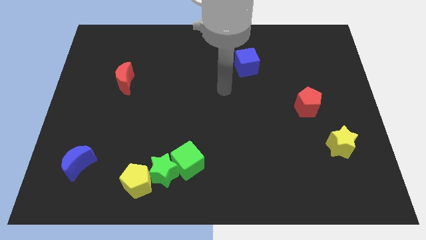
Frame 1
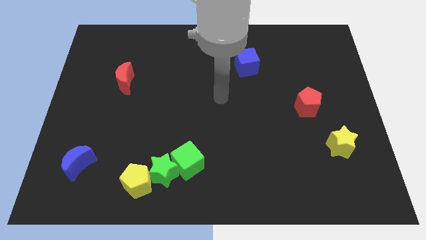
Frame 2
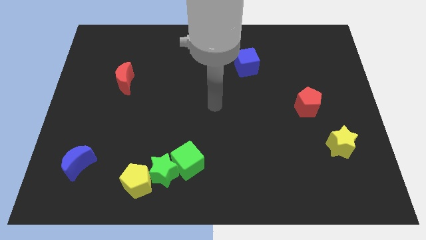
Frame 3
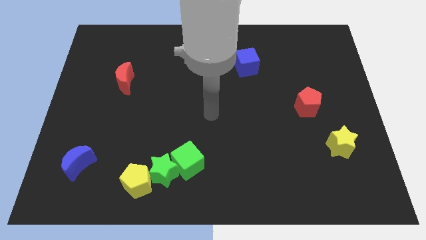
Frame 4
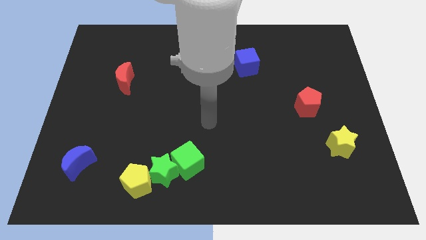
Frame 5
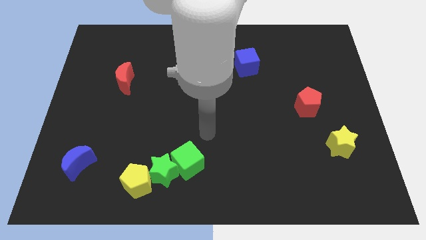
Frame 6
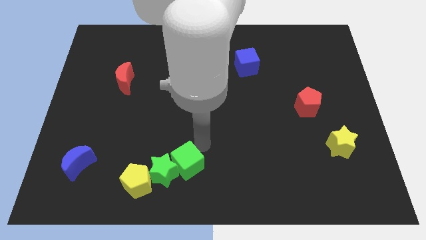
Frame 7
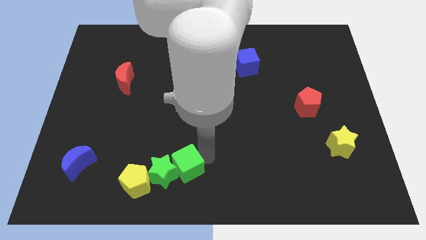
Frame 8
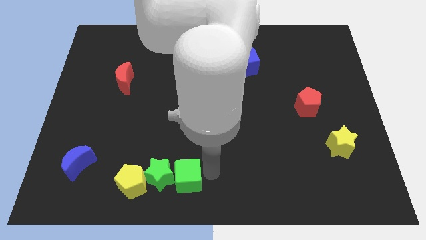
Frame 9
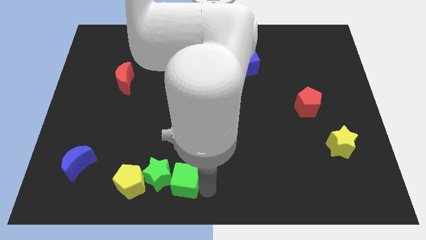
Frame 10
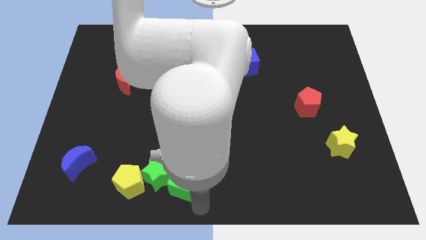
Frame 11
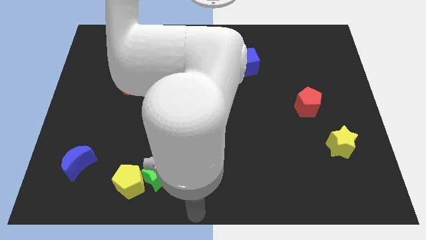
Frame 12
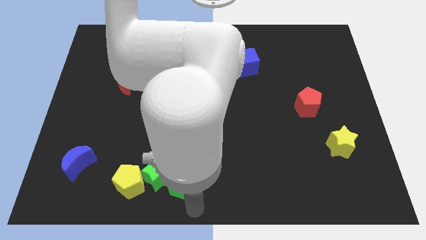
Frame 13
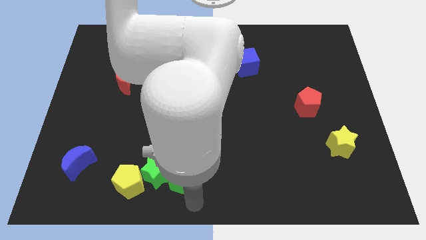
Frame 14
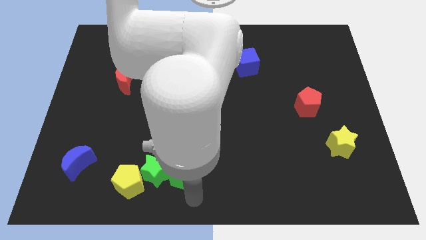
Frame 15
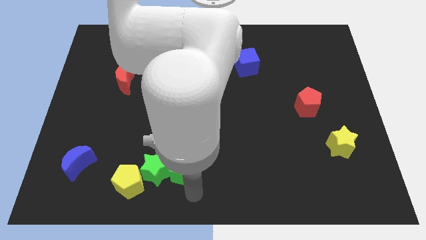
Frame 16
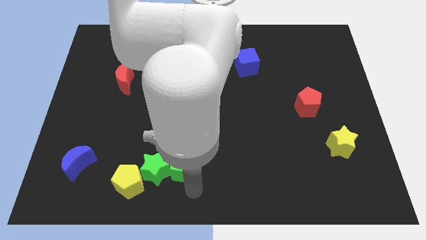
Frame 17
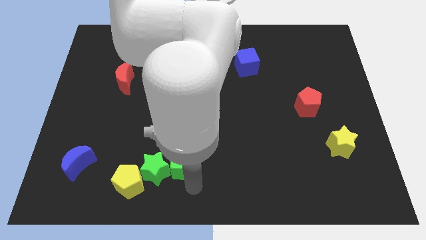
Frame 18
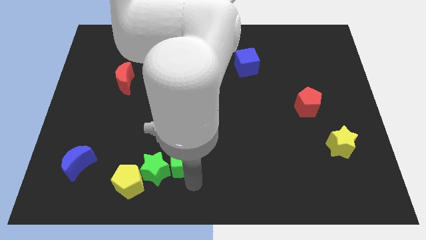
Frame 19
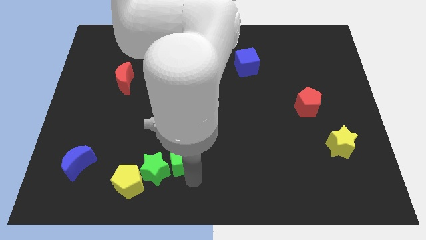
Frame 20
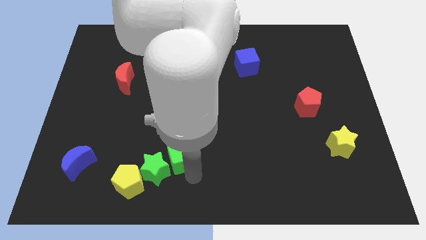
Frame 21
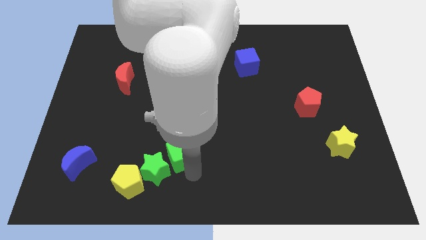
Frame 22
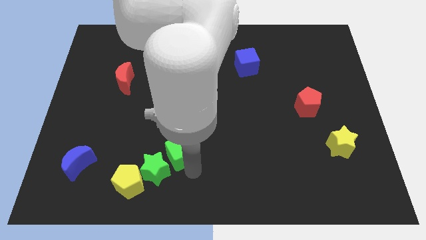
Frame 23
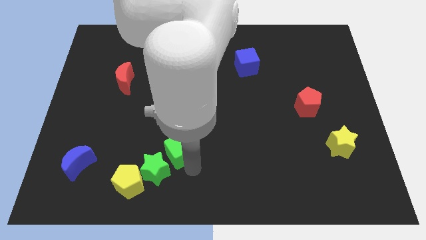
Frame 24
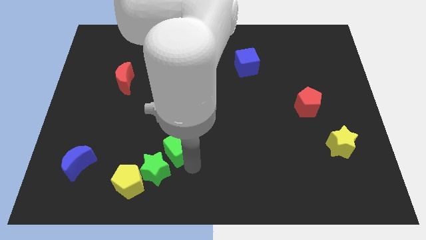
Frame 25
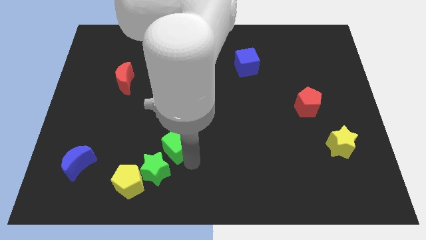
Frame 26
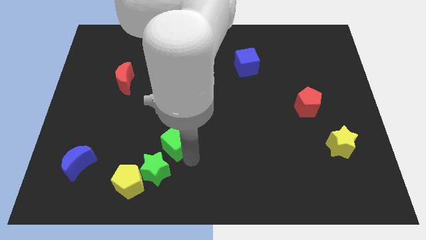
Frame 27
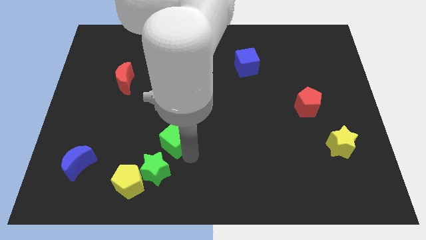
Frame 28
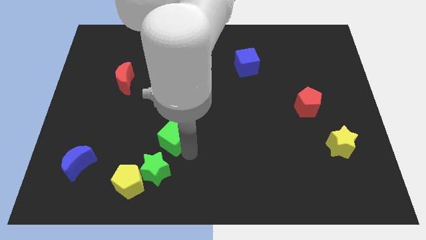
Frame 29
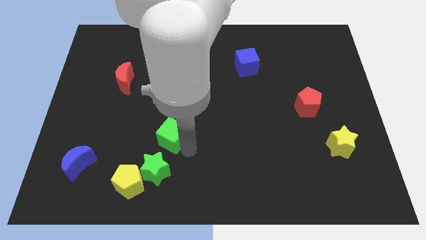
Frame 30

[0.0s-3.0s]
push the green cube somewhat upwards and to the left diagonally

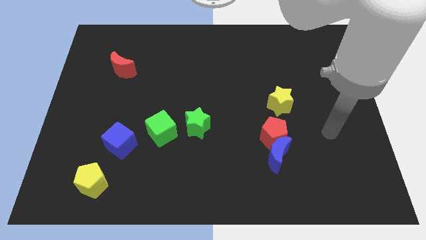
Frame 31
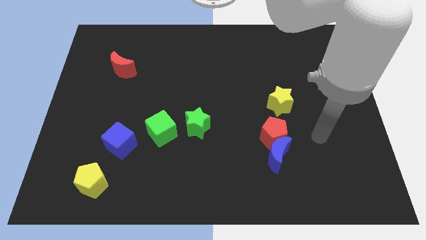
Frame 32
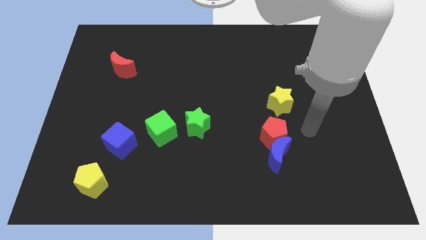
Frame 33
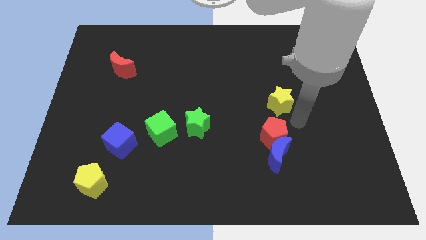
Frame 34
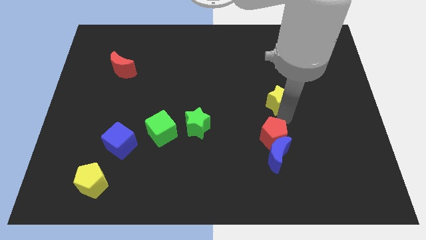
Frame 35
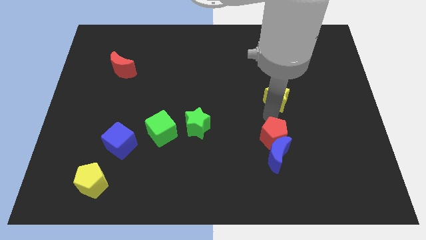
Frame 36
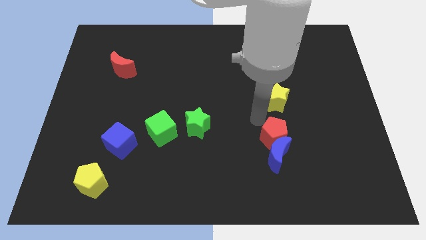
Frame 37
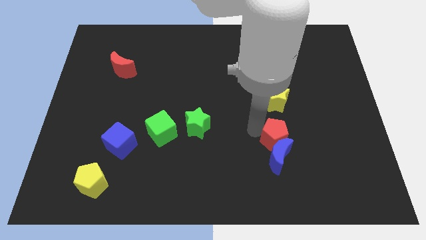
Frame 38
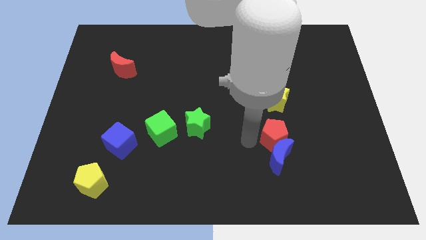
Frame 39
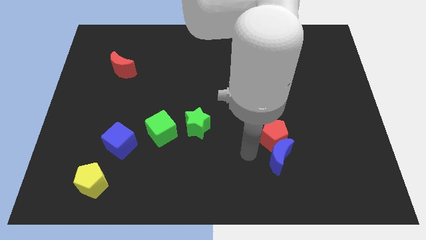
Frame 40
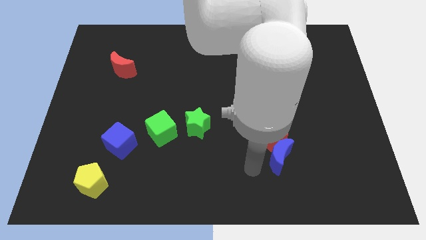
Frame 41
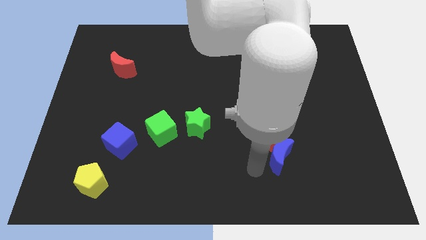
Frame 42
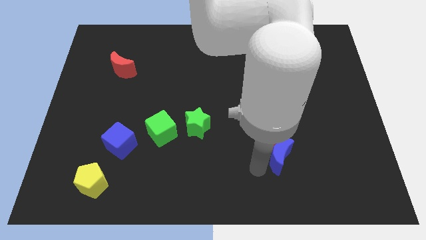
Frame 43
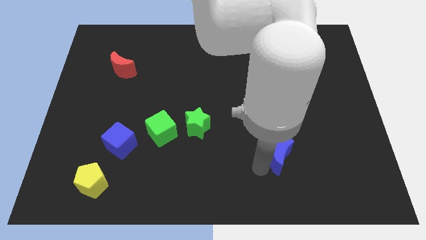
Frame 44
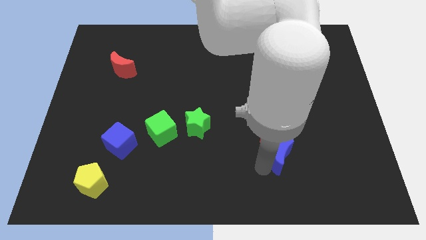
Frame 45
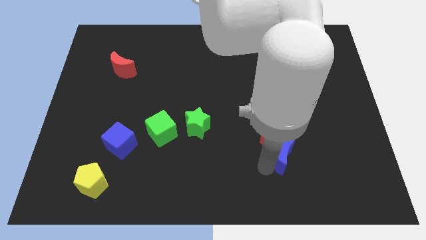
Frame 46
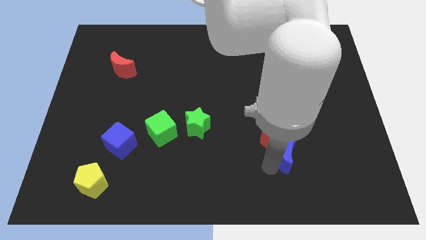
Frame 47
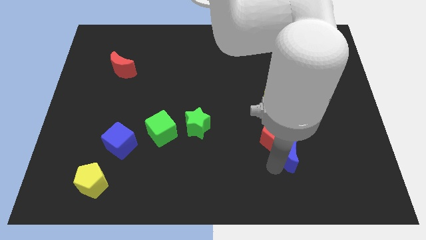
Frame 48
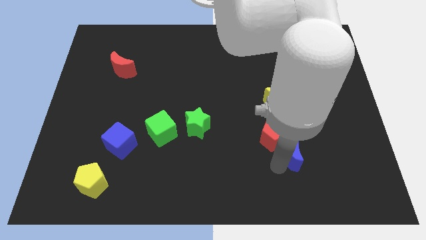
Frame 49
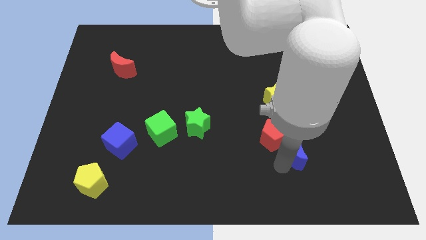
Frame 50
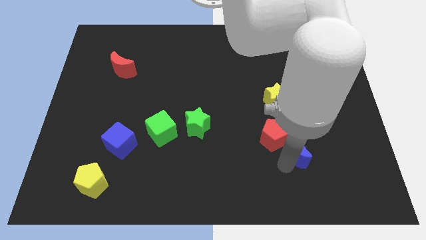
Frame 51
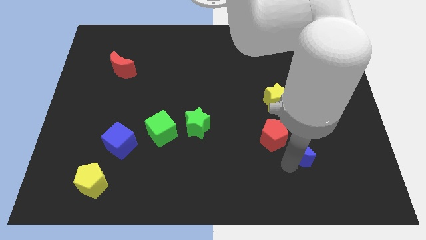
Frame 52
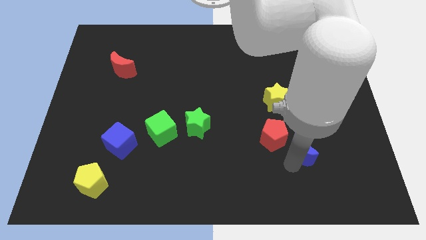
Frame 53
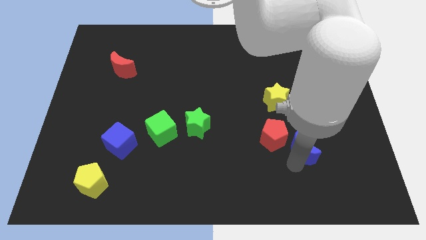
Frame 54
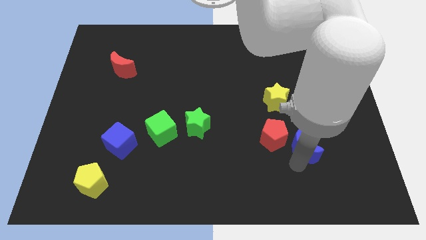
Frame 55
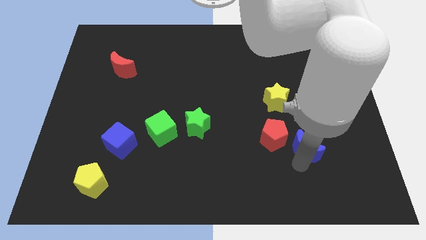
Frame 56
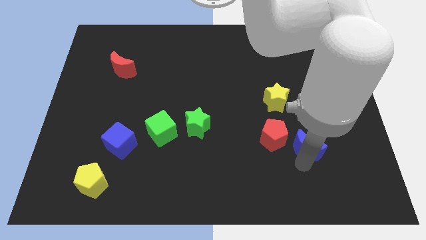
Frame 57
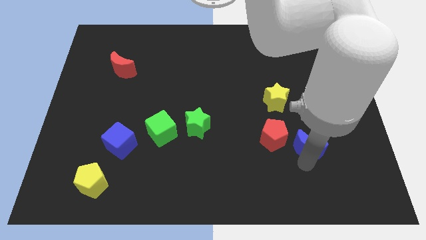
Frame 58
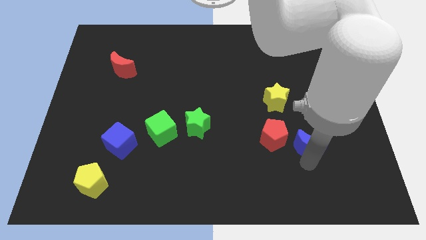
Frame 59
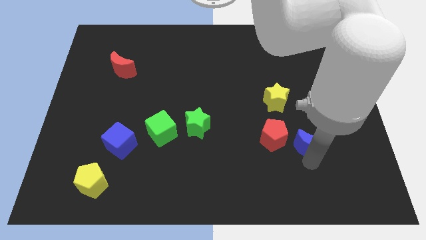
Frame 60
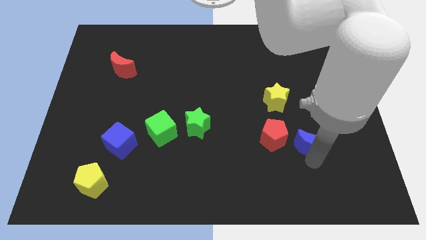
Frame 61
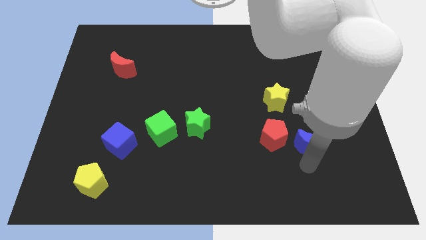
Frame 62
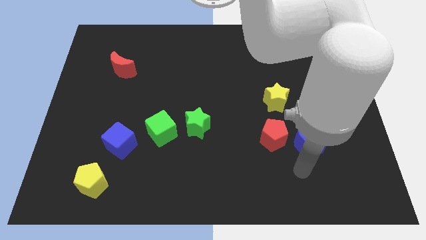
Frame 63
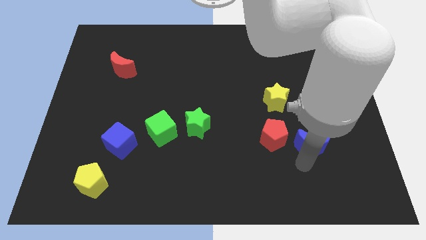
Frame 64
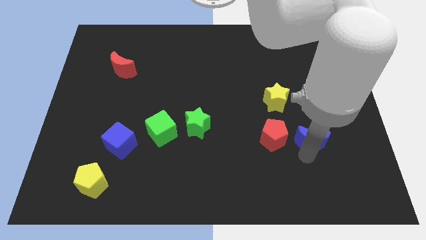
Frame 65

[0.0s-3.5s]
push the blue moon a bit up and right

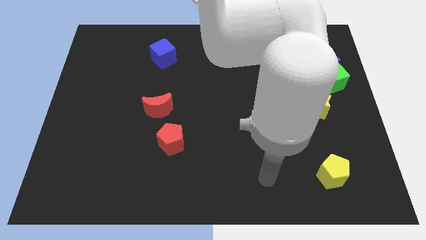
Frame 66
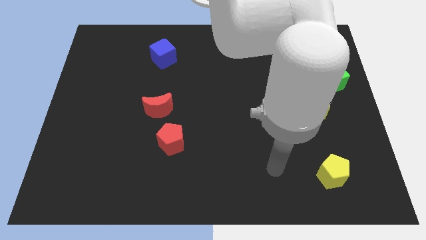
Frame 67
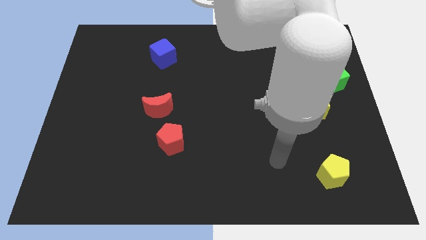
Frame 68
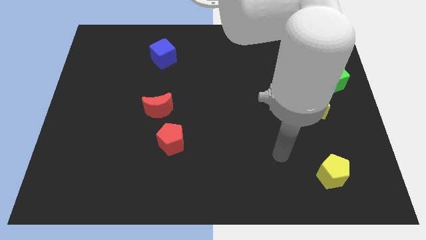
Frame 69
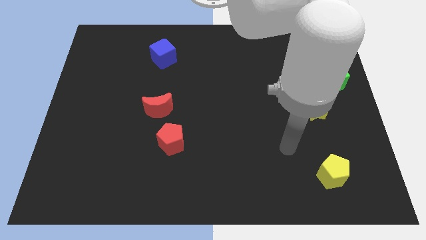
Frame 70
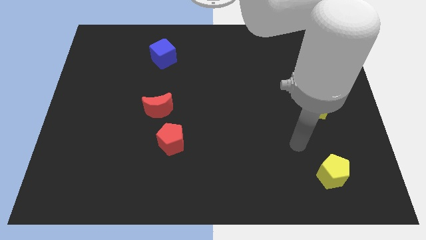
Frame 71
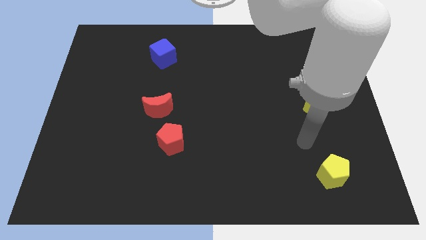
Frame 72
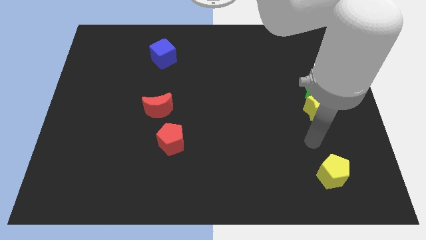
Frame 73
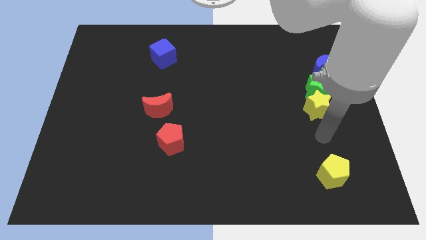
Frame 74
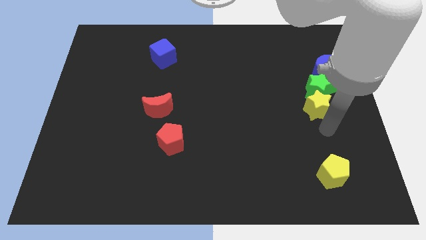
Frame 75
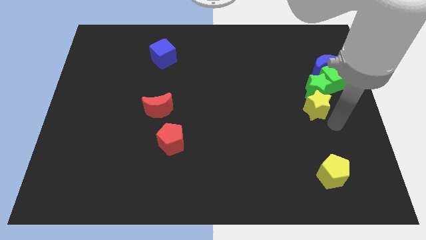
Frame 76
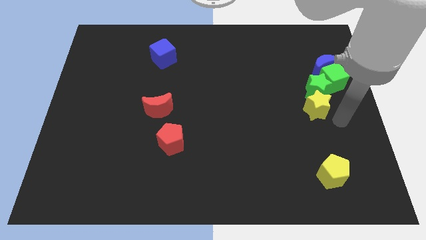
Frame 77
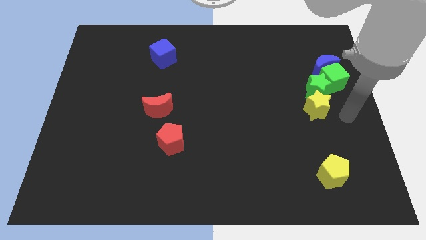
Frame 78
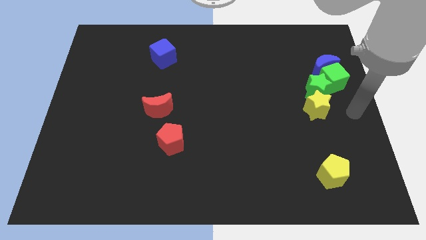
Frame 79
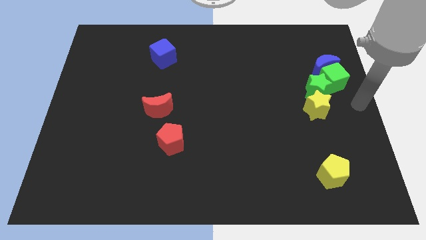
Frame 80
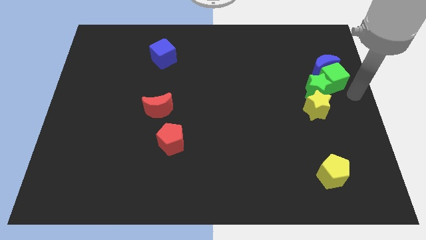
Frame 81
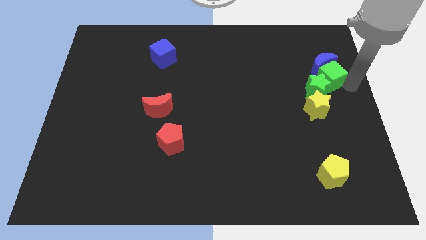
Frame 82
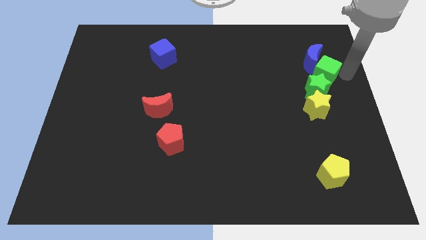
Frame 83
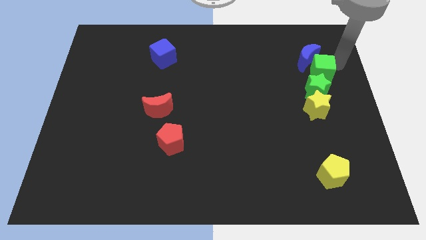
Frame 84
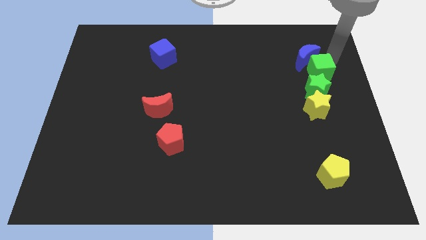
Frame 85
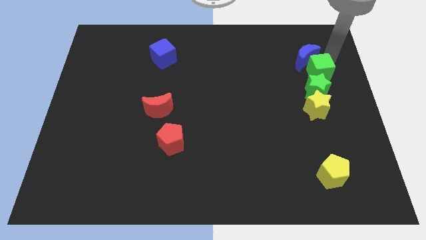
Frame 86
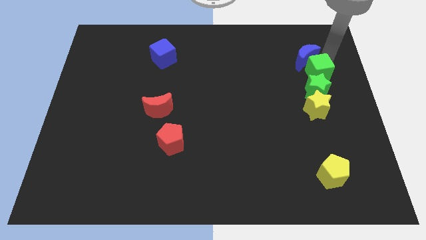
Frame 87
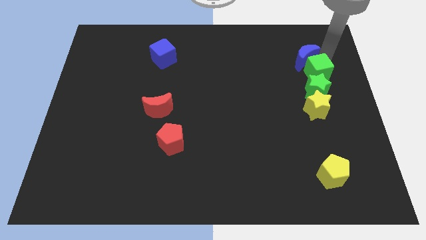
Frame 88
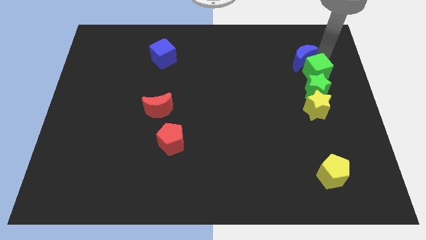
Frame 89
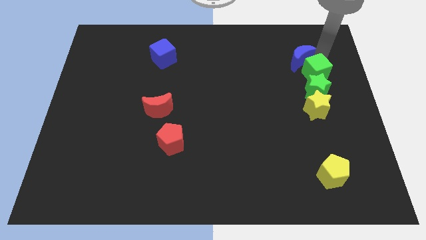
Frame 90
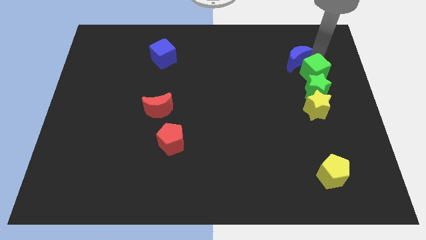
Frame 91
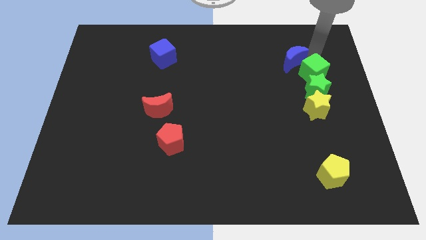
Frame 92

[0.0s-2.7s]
push the blue moon slightly to the left
